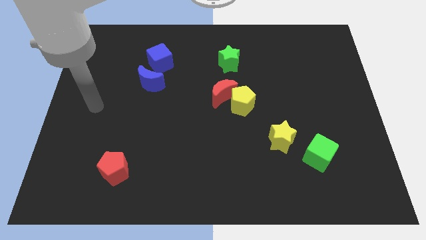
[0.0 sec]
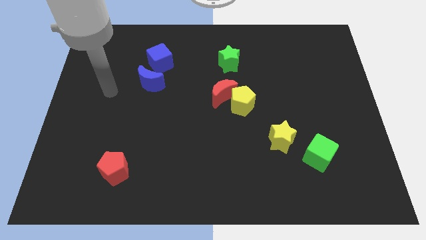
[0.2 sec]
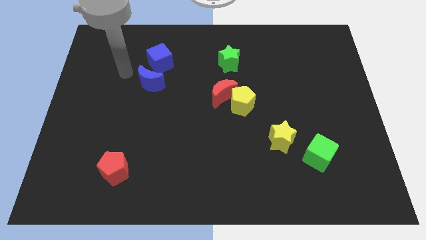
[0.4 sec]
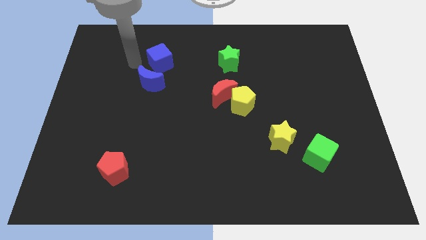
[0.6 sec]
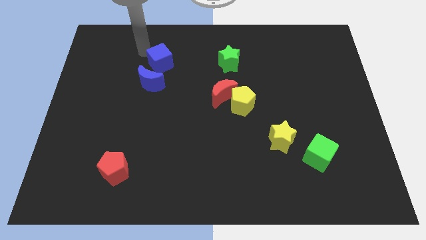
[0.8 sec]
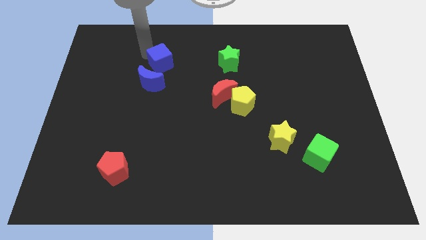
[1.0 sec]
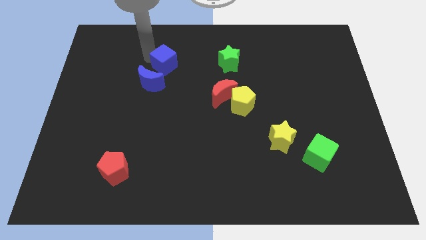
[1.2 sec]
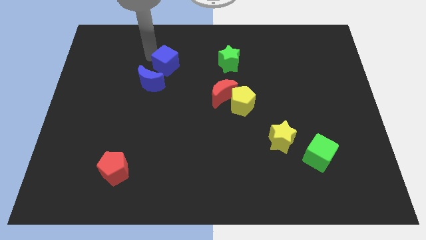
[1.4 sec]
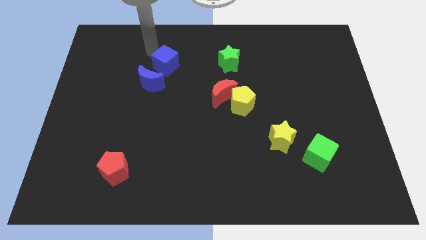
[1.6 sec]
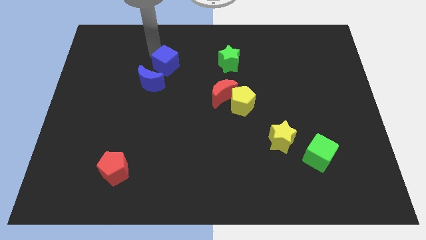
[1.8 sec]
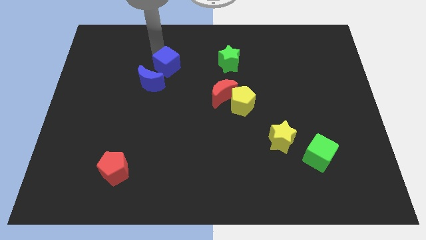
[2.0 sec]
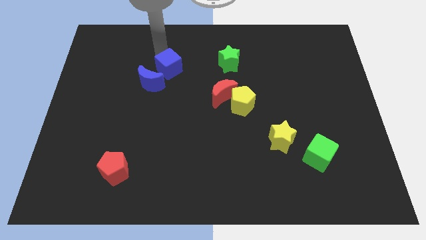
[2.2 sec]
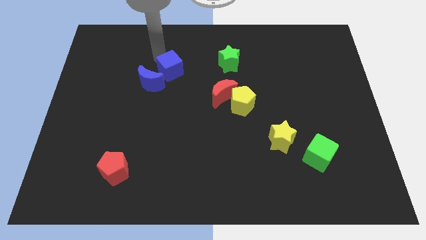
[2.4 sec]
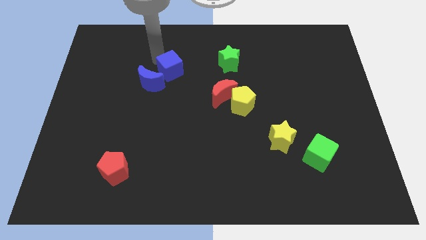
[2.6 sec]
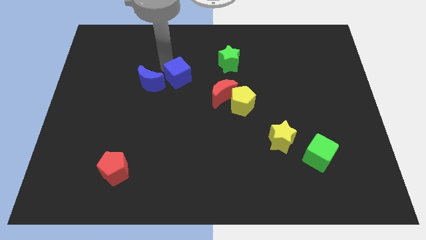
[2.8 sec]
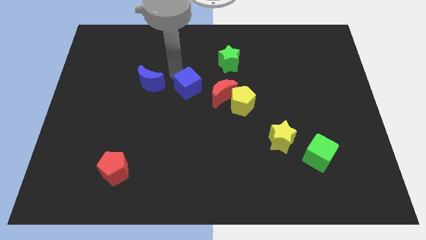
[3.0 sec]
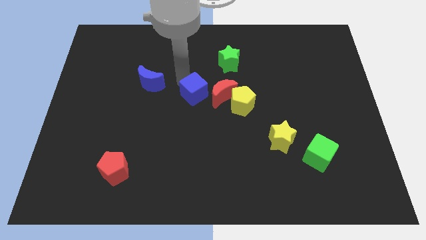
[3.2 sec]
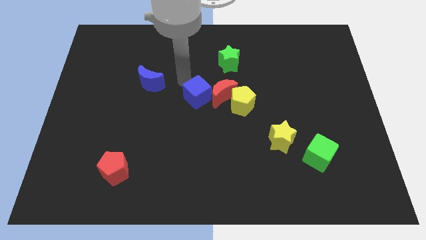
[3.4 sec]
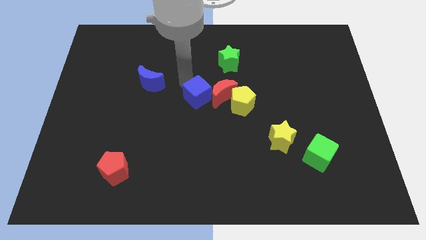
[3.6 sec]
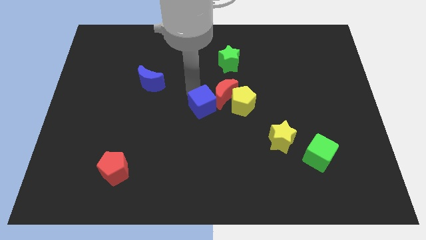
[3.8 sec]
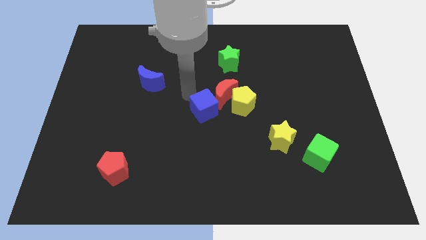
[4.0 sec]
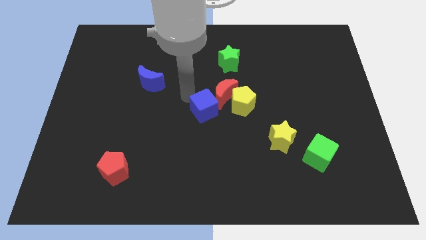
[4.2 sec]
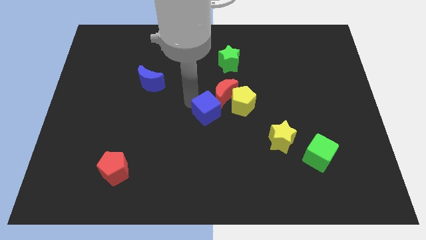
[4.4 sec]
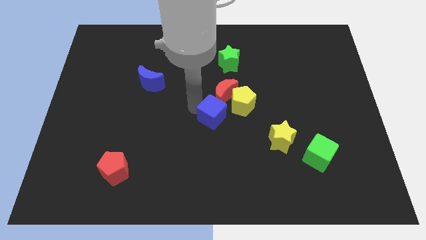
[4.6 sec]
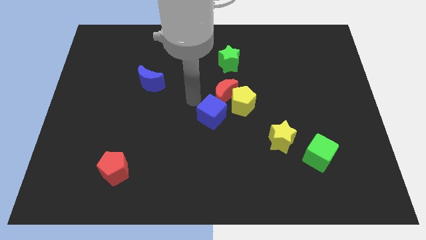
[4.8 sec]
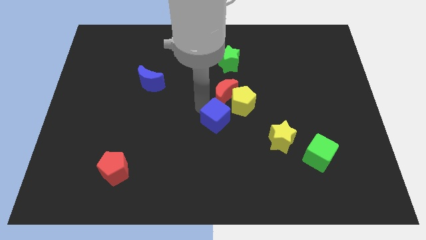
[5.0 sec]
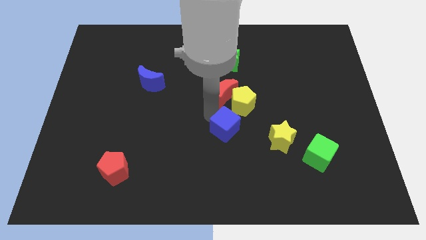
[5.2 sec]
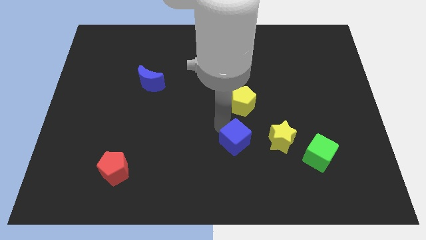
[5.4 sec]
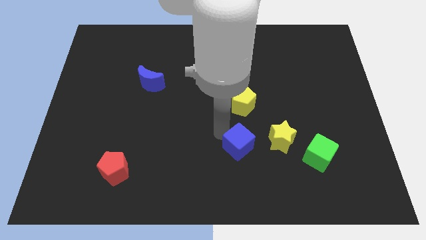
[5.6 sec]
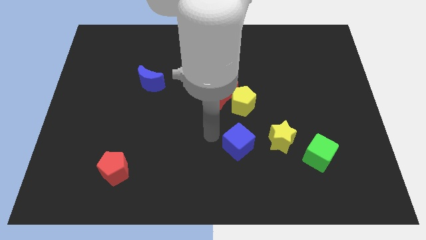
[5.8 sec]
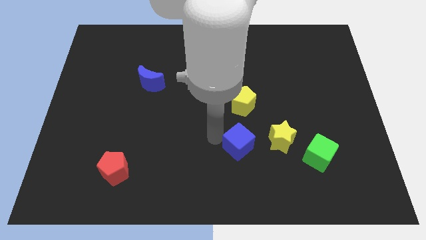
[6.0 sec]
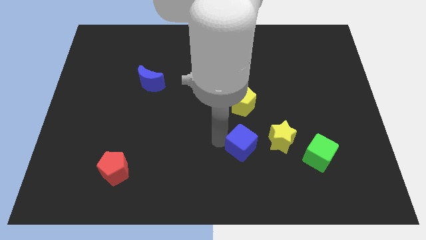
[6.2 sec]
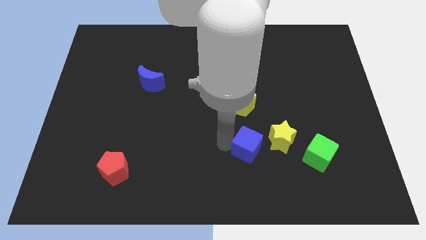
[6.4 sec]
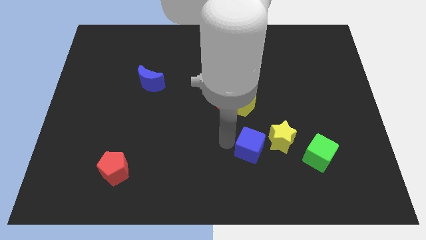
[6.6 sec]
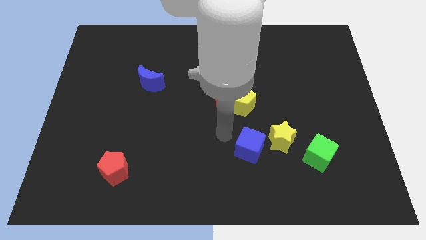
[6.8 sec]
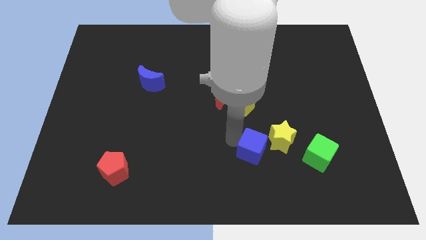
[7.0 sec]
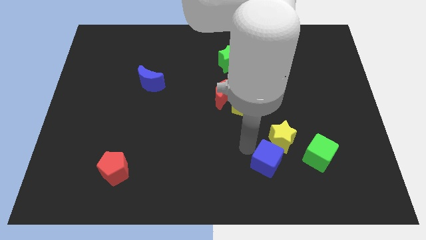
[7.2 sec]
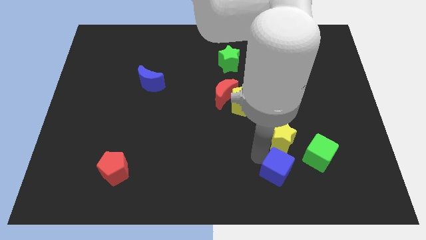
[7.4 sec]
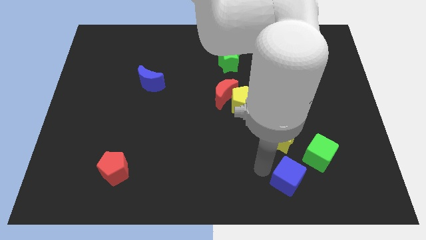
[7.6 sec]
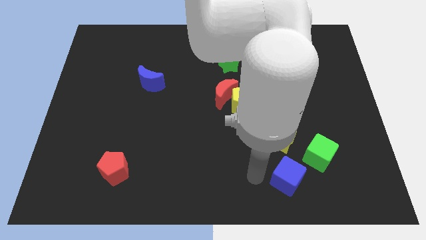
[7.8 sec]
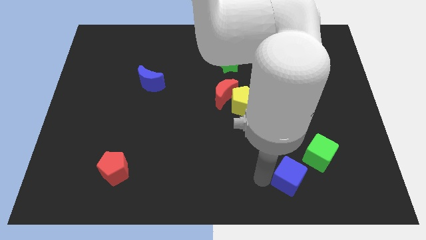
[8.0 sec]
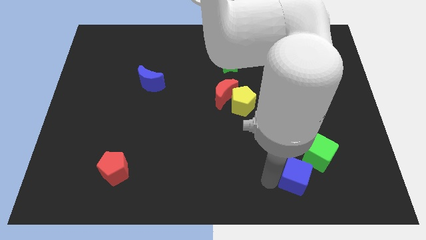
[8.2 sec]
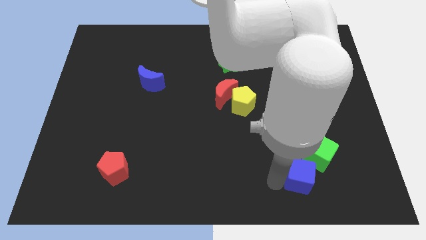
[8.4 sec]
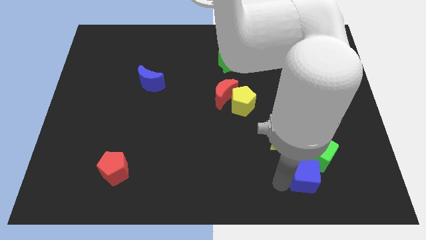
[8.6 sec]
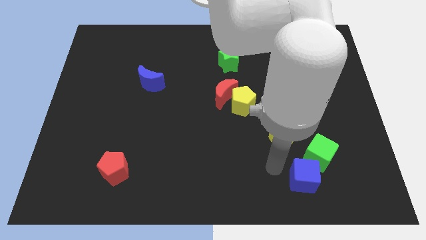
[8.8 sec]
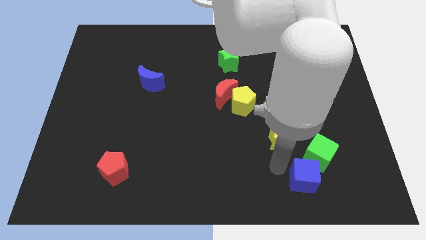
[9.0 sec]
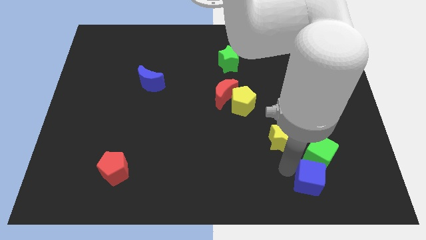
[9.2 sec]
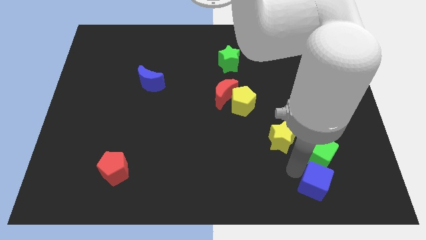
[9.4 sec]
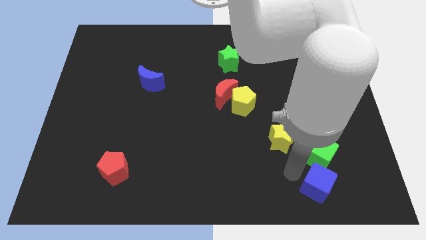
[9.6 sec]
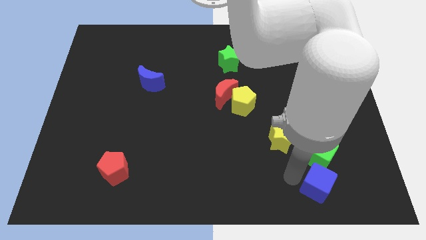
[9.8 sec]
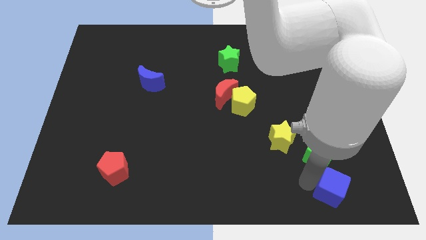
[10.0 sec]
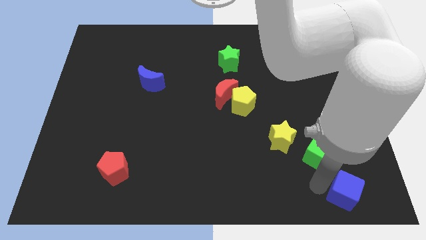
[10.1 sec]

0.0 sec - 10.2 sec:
push the blue cube to the bottom right of the board

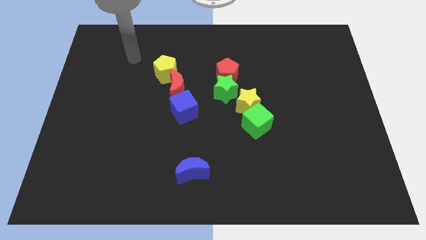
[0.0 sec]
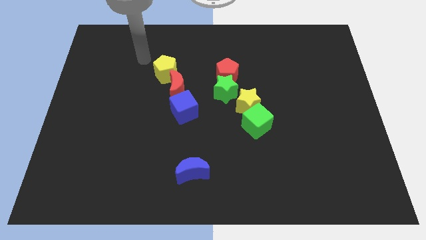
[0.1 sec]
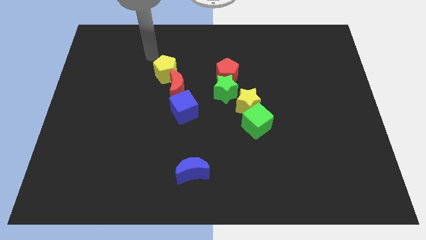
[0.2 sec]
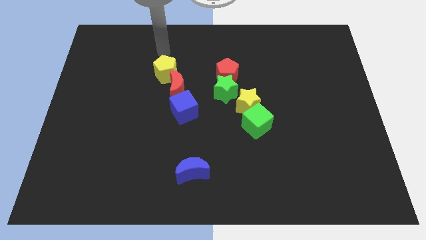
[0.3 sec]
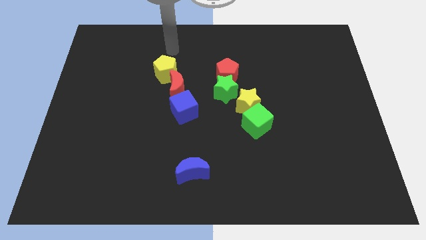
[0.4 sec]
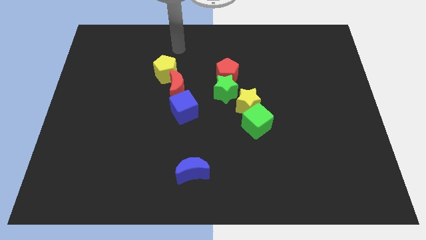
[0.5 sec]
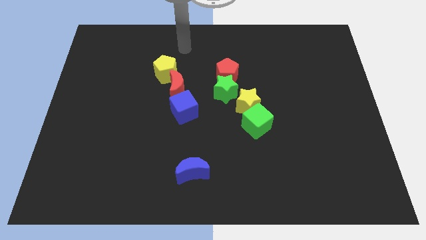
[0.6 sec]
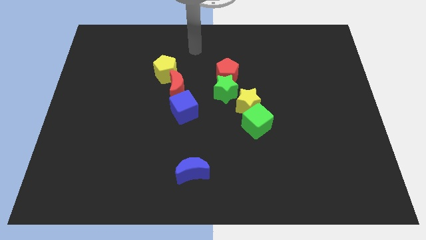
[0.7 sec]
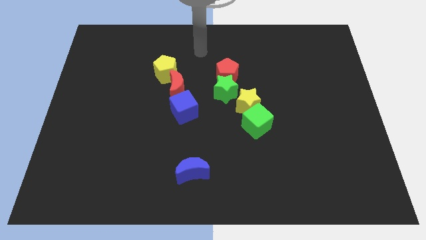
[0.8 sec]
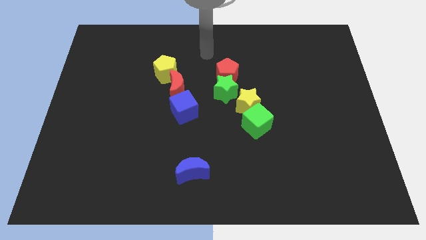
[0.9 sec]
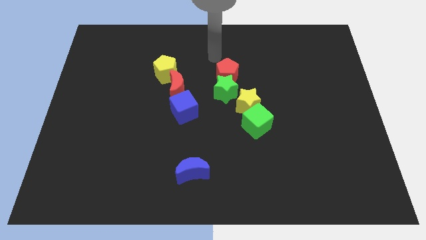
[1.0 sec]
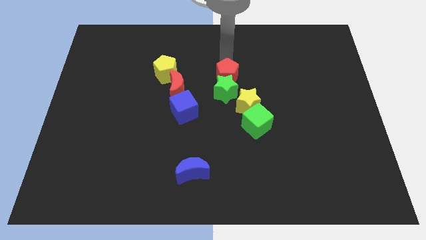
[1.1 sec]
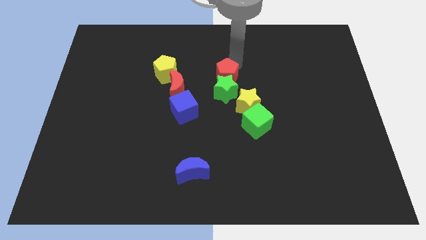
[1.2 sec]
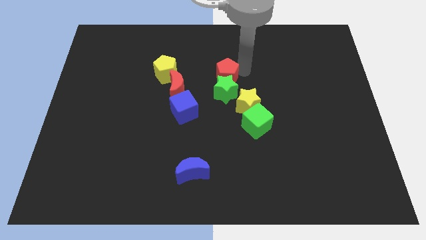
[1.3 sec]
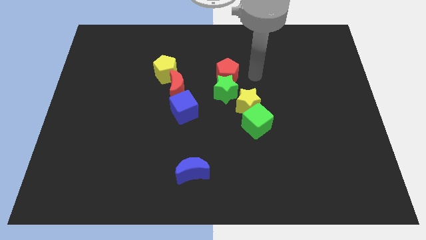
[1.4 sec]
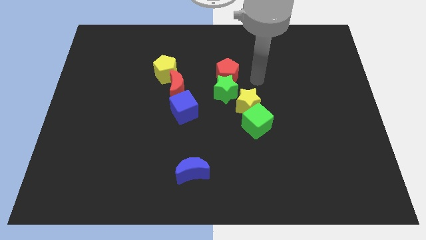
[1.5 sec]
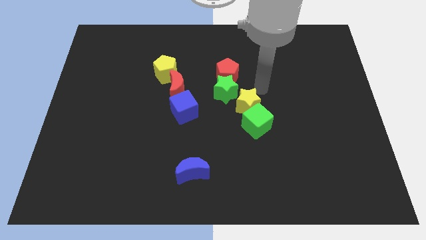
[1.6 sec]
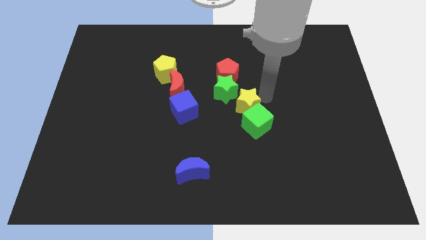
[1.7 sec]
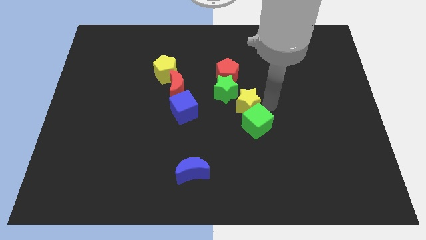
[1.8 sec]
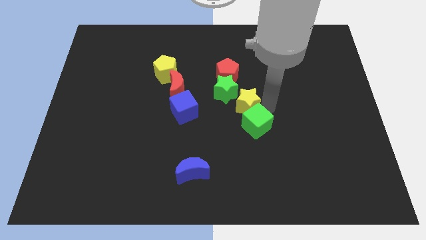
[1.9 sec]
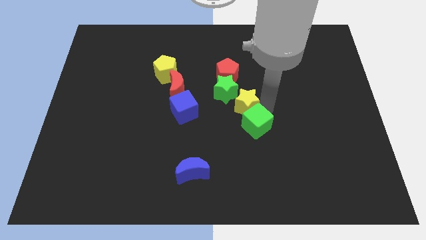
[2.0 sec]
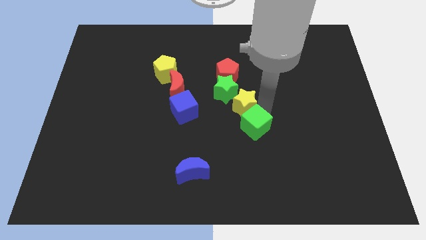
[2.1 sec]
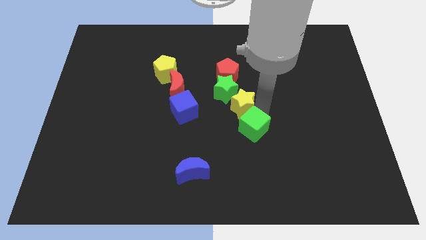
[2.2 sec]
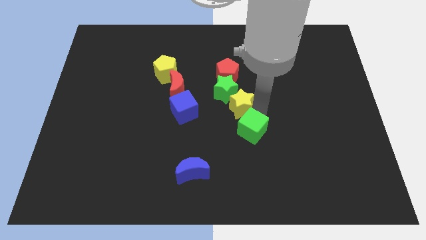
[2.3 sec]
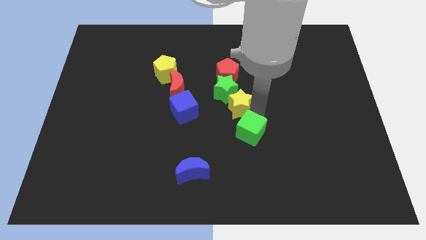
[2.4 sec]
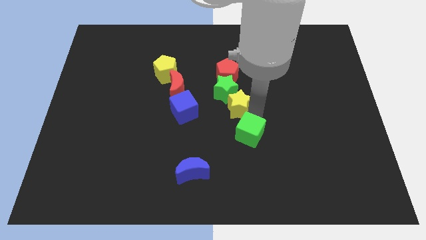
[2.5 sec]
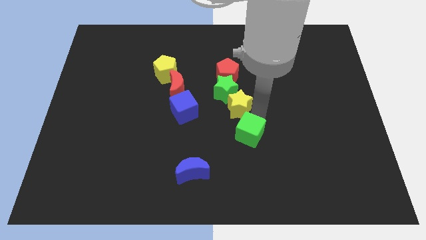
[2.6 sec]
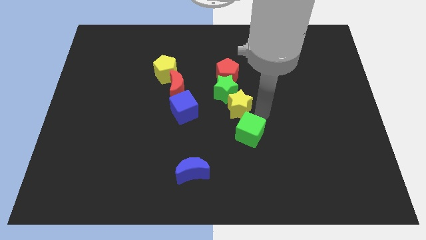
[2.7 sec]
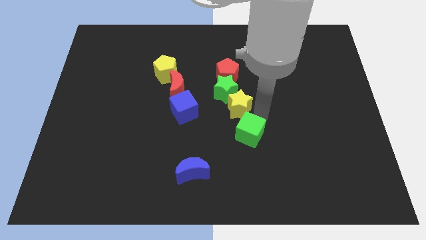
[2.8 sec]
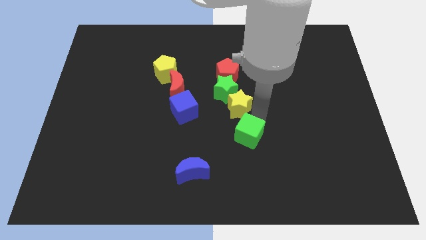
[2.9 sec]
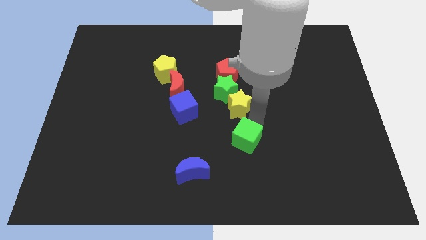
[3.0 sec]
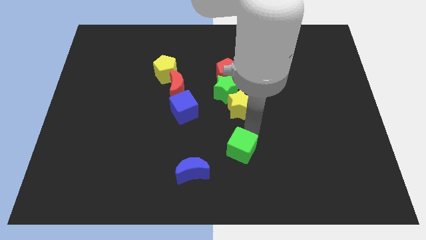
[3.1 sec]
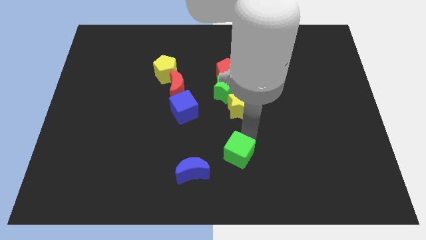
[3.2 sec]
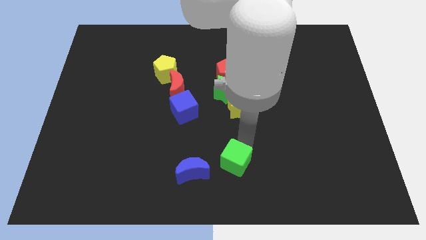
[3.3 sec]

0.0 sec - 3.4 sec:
slide the green cube to the bottom
